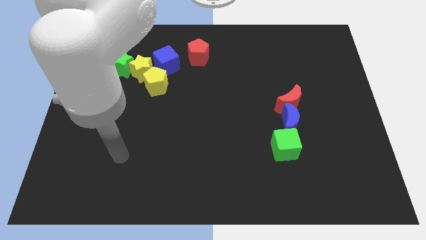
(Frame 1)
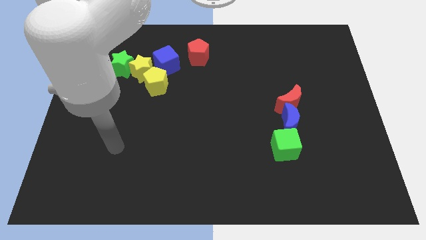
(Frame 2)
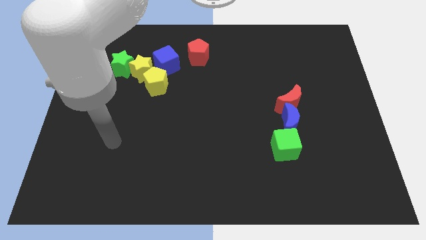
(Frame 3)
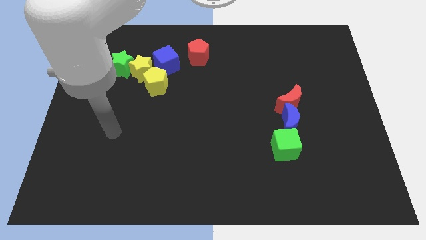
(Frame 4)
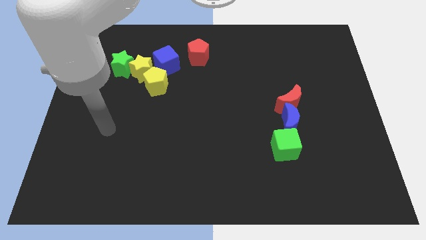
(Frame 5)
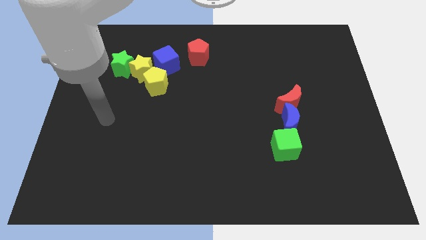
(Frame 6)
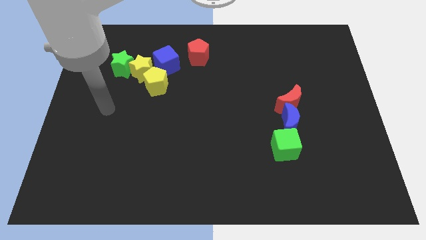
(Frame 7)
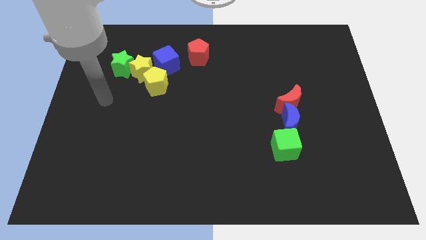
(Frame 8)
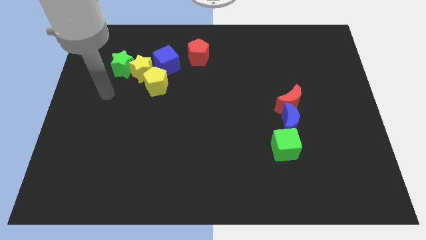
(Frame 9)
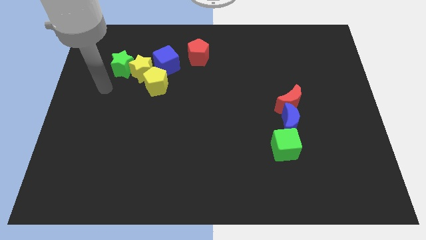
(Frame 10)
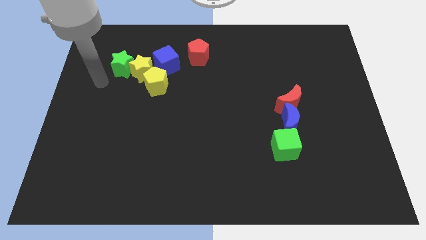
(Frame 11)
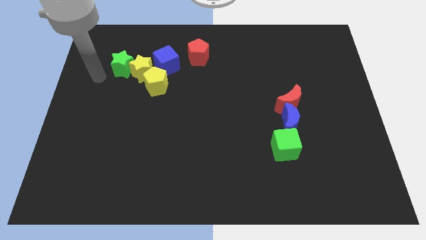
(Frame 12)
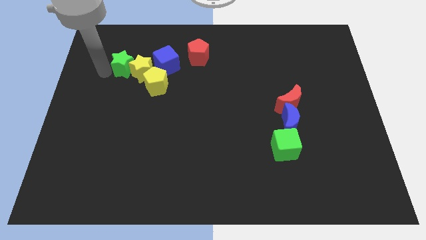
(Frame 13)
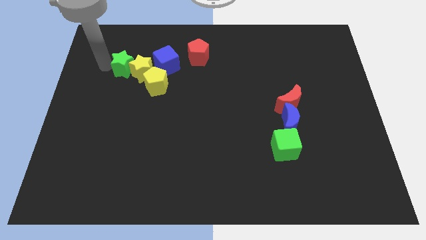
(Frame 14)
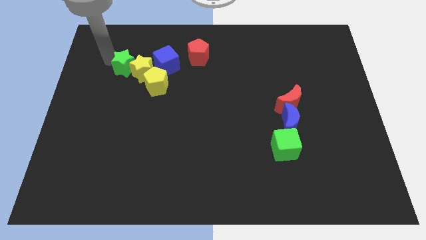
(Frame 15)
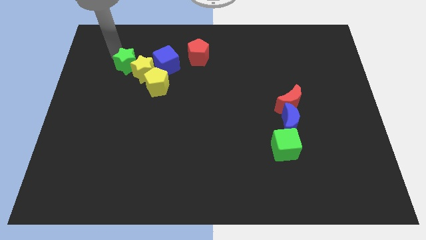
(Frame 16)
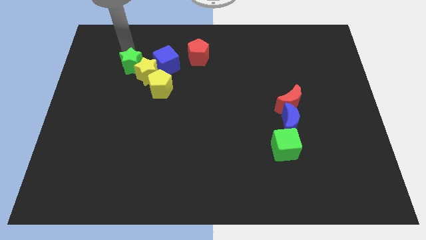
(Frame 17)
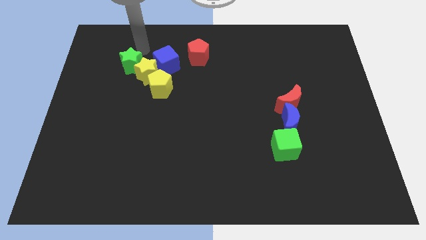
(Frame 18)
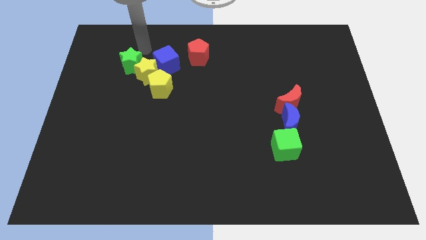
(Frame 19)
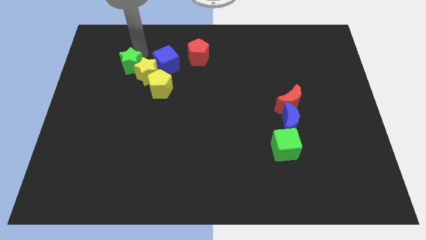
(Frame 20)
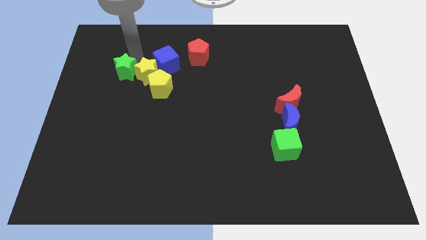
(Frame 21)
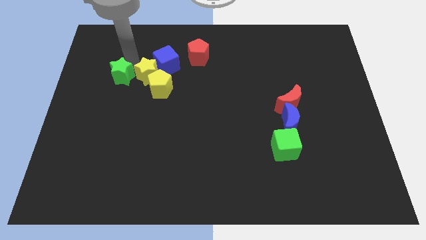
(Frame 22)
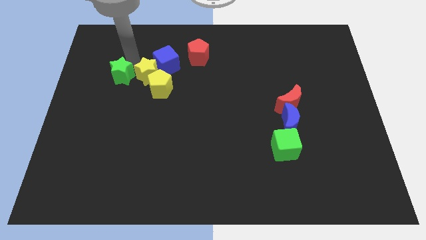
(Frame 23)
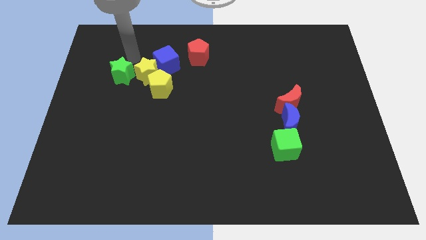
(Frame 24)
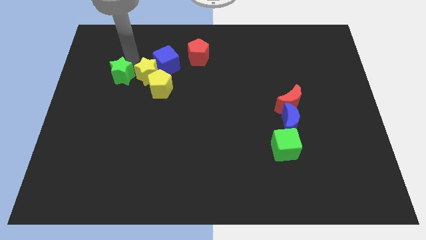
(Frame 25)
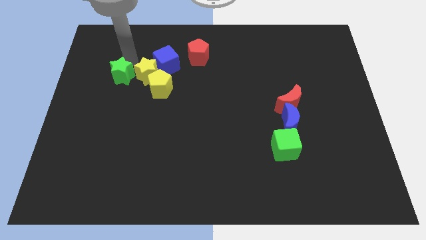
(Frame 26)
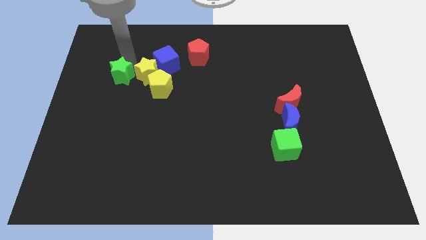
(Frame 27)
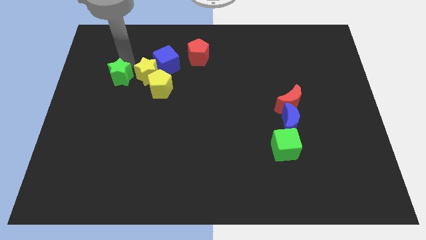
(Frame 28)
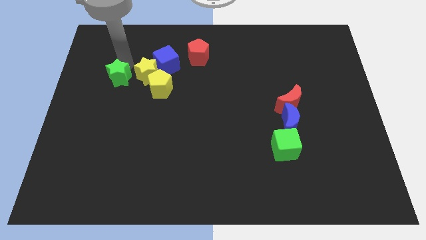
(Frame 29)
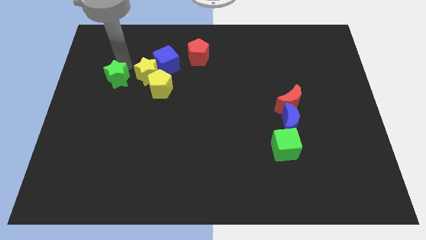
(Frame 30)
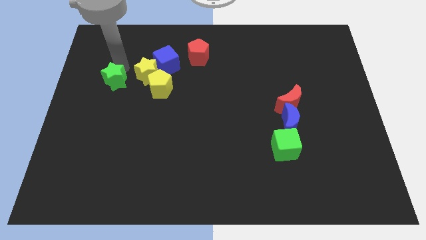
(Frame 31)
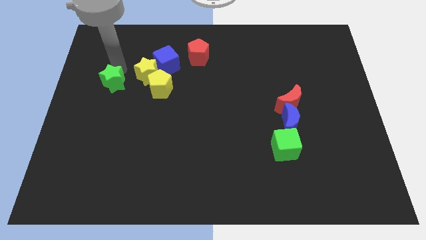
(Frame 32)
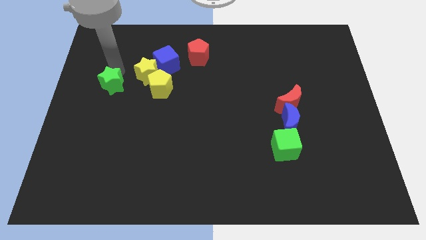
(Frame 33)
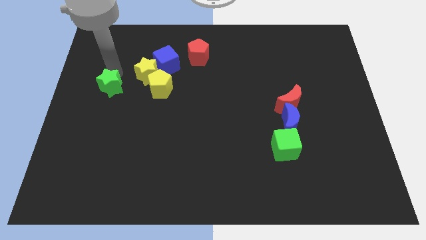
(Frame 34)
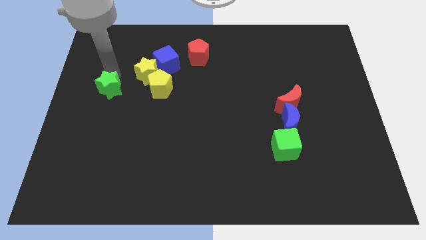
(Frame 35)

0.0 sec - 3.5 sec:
move the green star downwards slightly

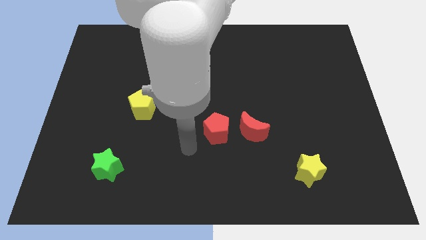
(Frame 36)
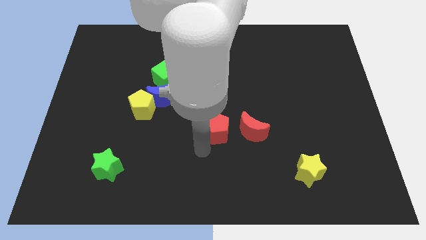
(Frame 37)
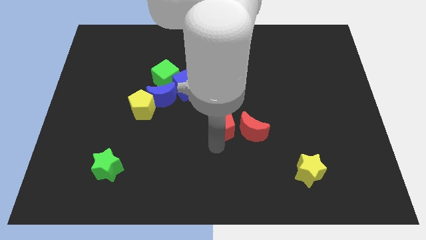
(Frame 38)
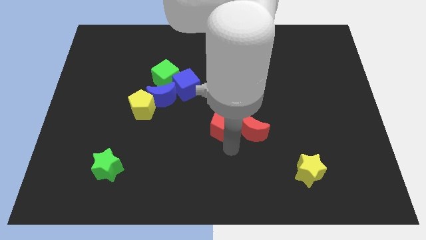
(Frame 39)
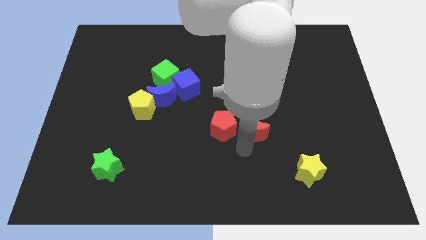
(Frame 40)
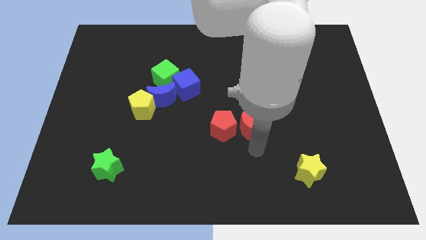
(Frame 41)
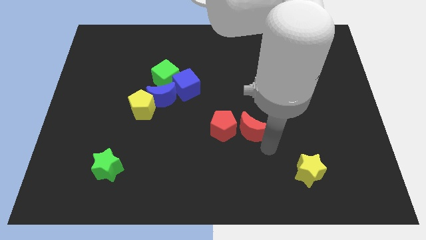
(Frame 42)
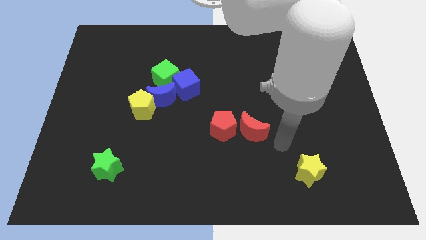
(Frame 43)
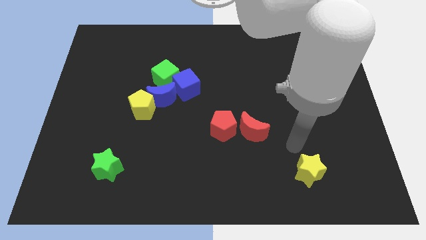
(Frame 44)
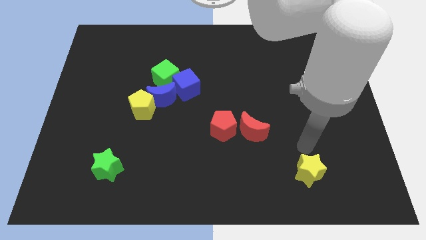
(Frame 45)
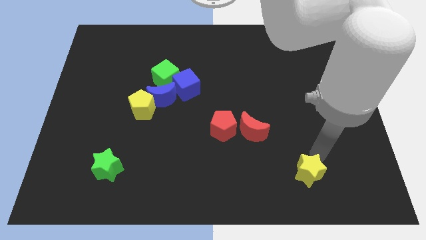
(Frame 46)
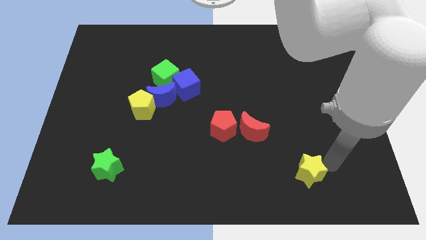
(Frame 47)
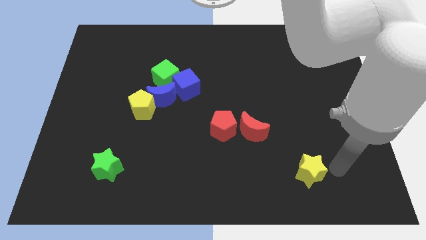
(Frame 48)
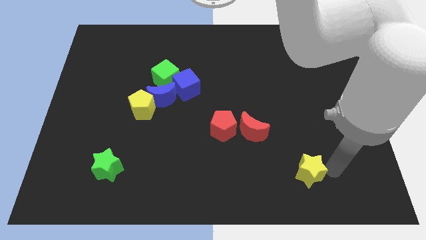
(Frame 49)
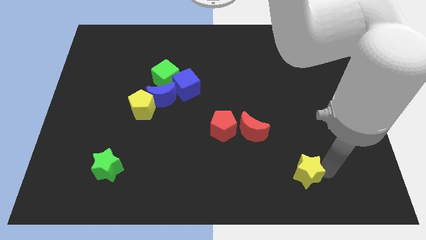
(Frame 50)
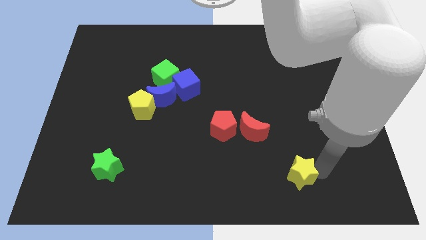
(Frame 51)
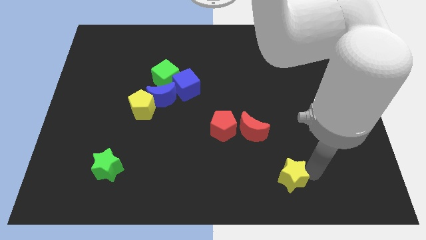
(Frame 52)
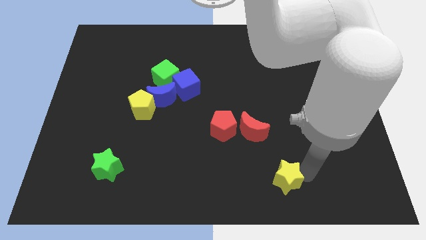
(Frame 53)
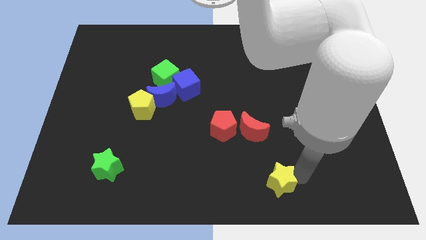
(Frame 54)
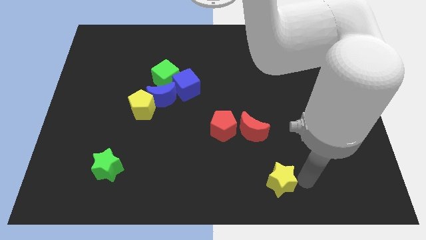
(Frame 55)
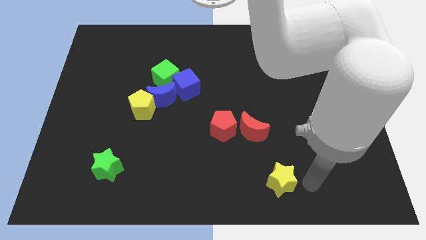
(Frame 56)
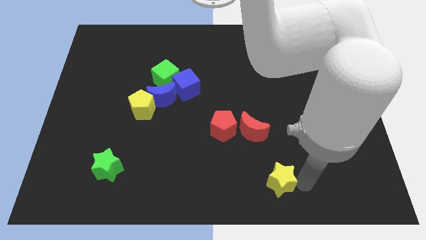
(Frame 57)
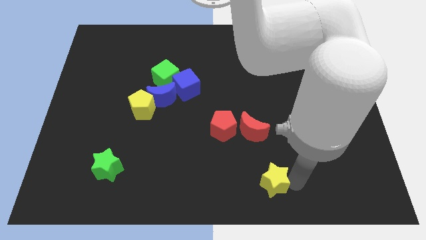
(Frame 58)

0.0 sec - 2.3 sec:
slide the yellow star to the left slightly

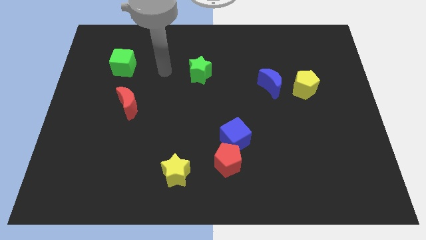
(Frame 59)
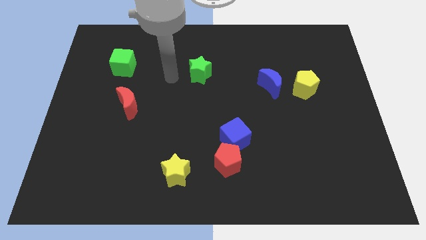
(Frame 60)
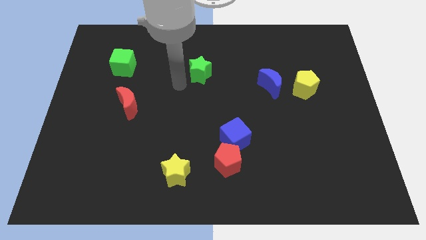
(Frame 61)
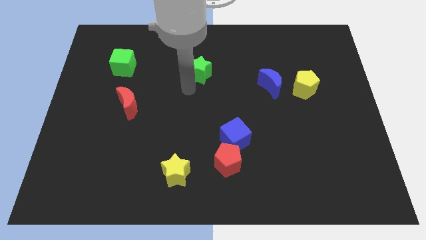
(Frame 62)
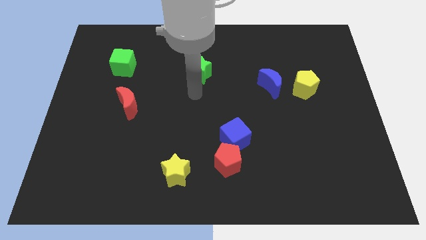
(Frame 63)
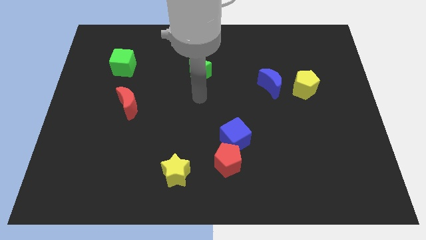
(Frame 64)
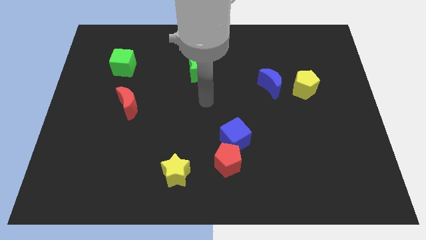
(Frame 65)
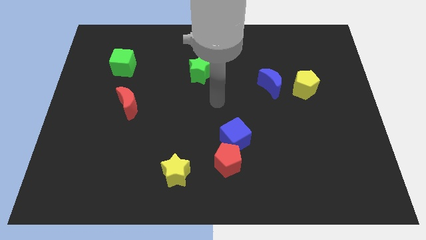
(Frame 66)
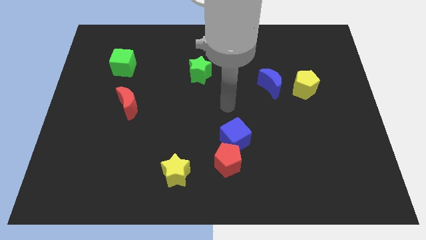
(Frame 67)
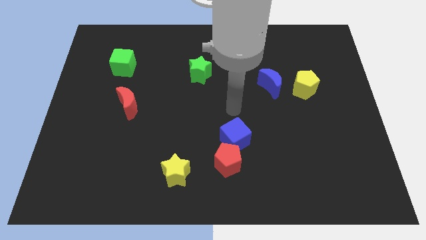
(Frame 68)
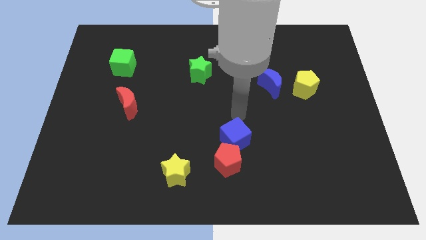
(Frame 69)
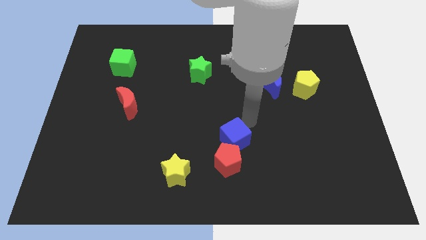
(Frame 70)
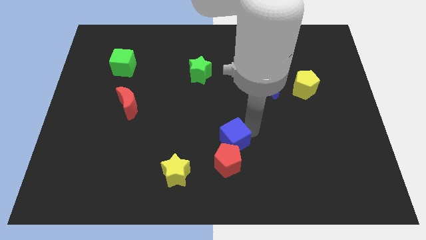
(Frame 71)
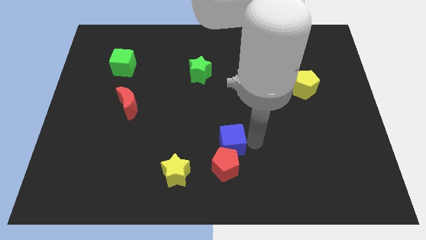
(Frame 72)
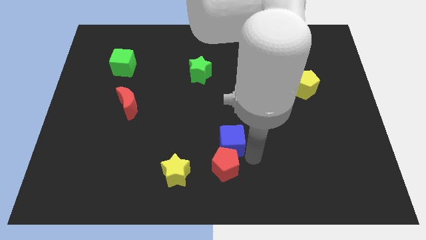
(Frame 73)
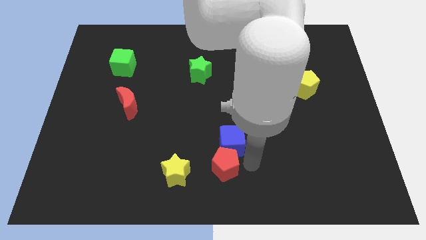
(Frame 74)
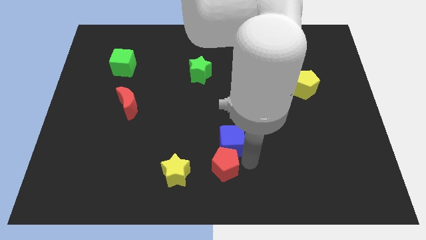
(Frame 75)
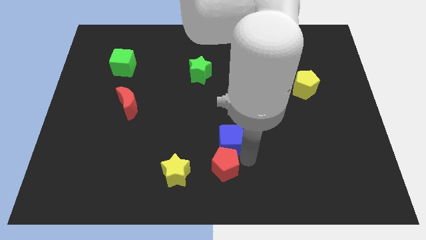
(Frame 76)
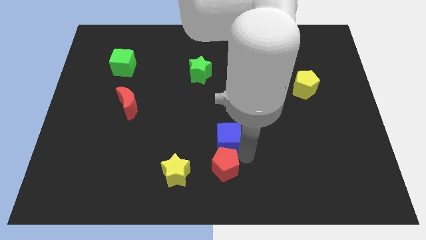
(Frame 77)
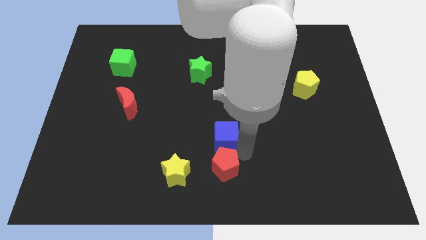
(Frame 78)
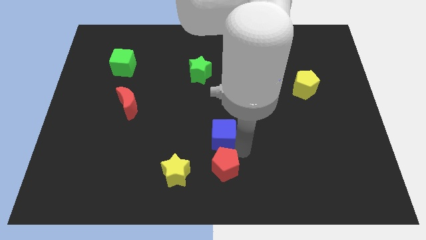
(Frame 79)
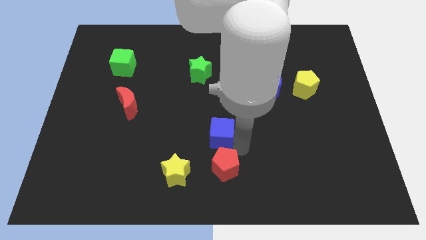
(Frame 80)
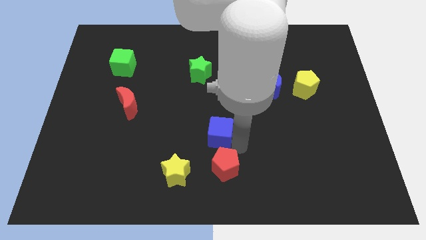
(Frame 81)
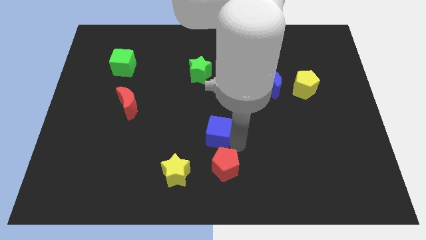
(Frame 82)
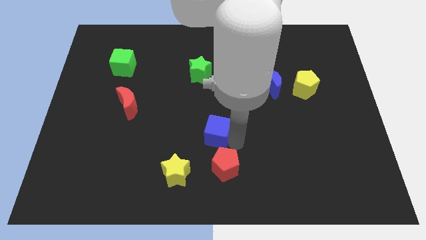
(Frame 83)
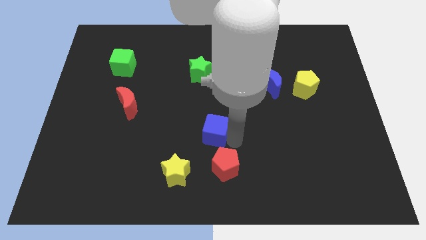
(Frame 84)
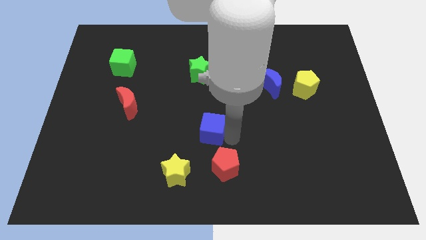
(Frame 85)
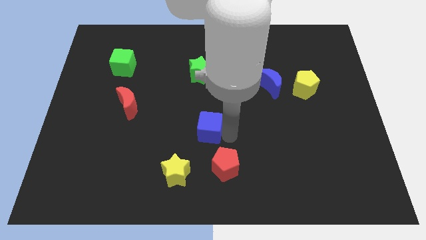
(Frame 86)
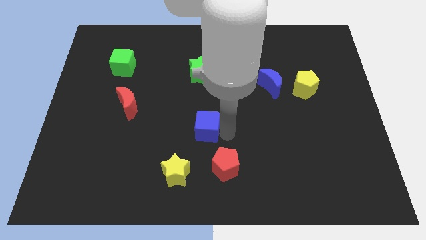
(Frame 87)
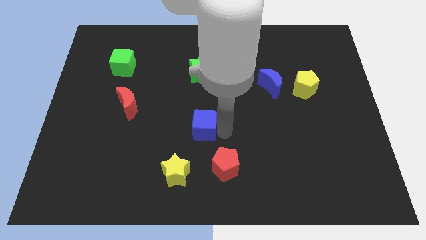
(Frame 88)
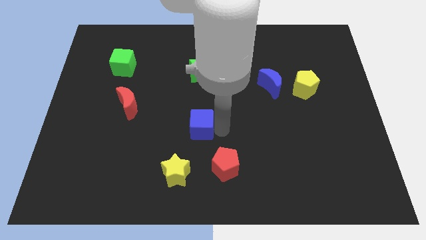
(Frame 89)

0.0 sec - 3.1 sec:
slightly push the blue cube diagonally upwards and to the left
